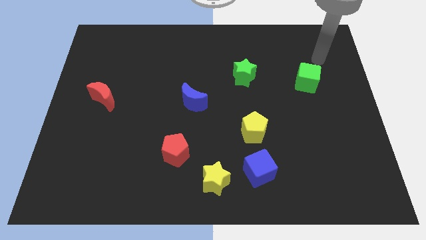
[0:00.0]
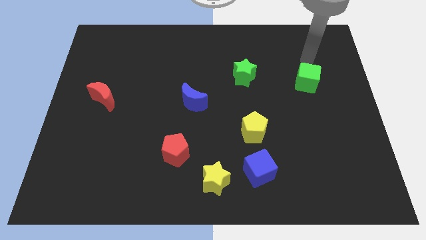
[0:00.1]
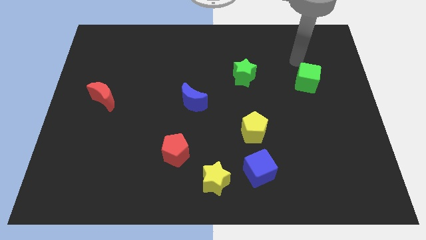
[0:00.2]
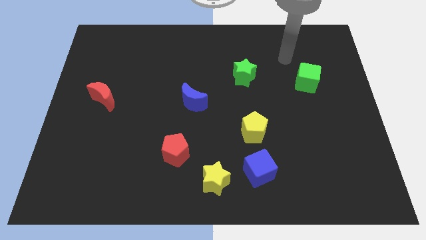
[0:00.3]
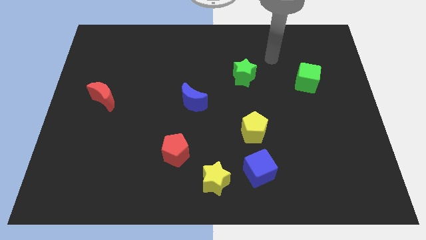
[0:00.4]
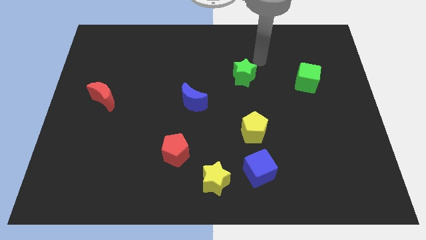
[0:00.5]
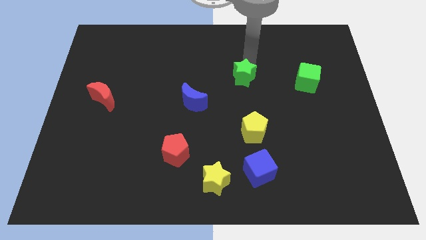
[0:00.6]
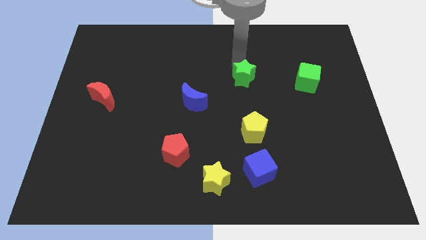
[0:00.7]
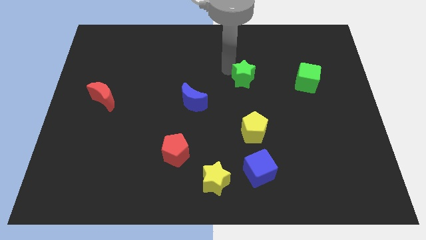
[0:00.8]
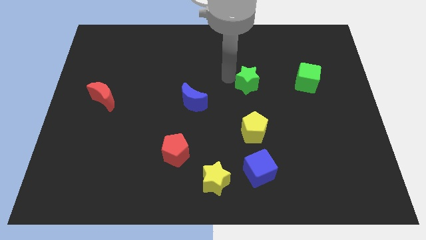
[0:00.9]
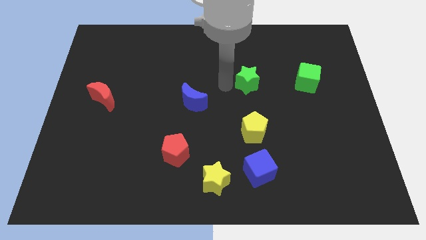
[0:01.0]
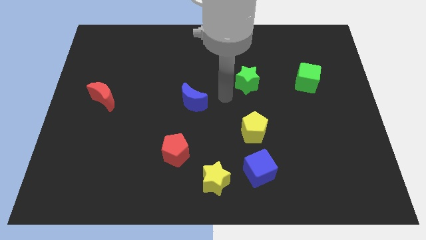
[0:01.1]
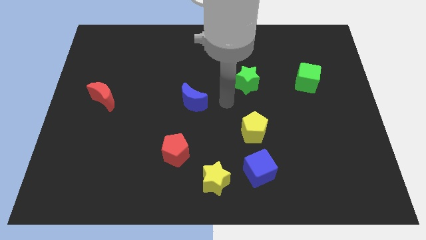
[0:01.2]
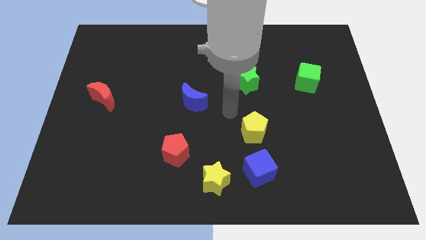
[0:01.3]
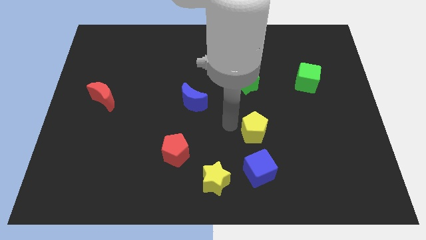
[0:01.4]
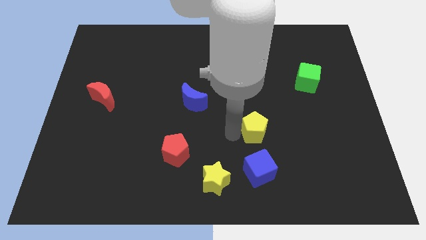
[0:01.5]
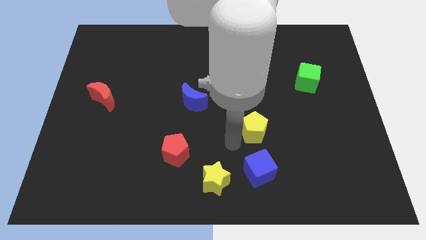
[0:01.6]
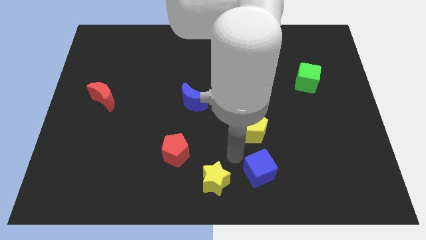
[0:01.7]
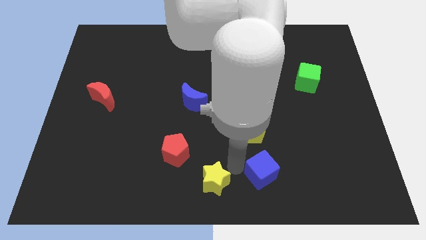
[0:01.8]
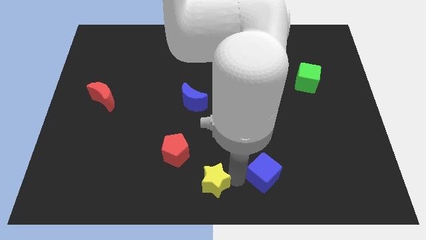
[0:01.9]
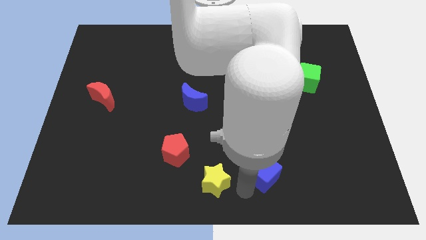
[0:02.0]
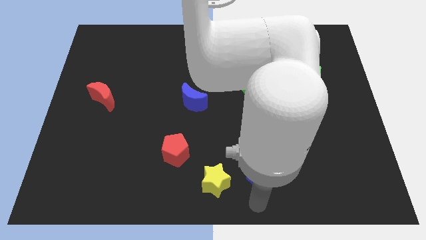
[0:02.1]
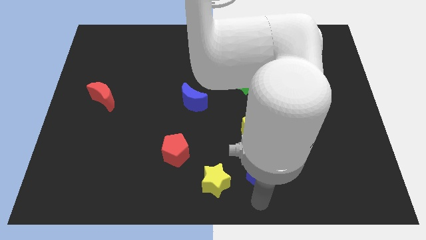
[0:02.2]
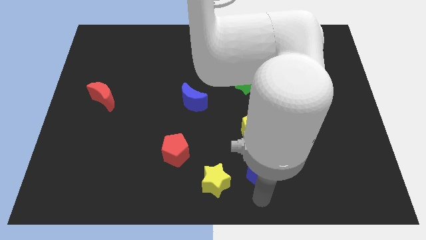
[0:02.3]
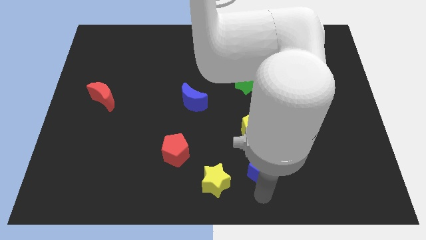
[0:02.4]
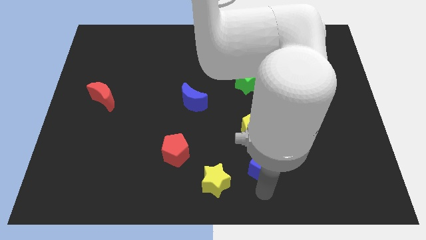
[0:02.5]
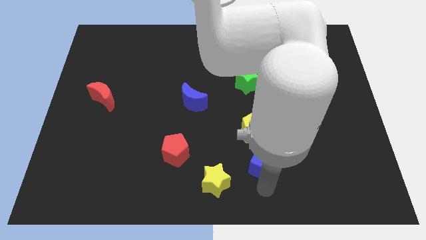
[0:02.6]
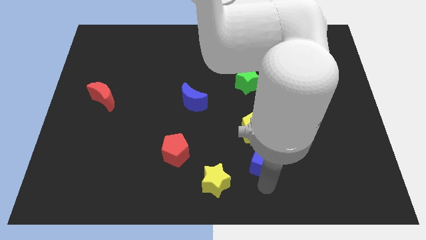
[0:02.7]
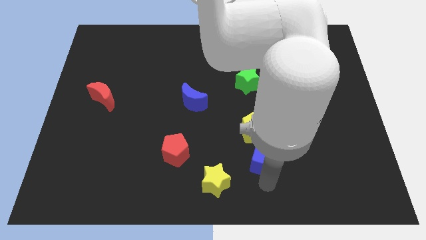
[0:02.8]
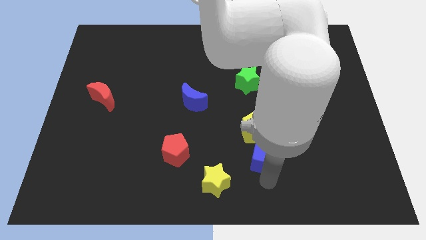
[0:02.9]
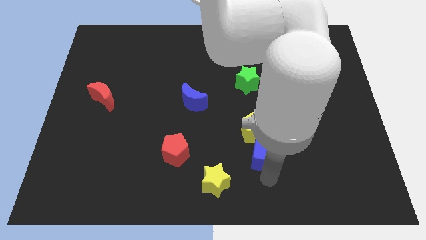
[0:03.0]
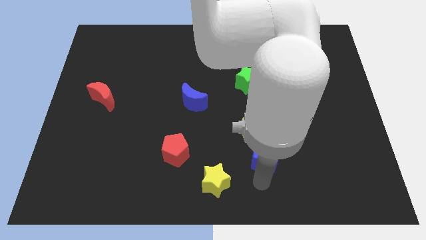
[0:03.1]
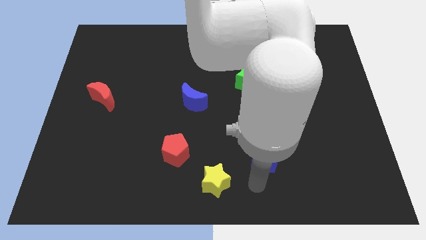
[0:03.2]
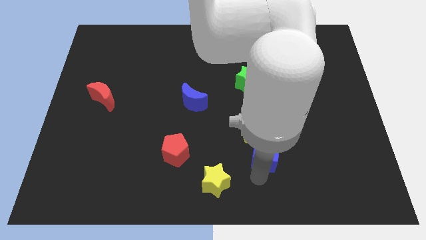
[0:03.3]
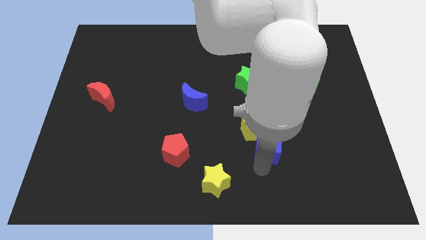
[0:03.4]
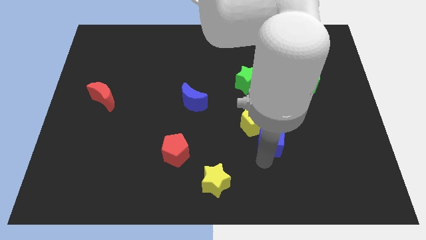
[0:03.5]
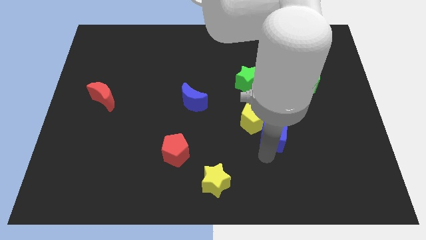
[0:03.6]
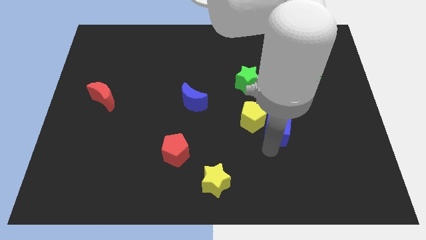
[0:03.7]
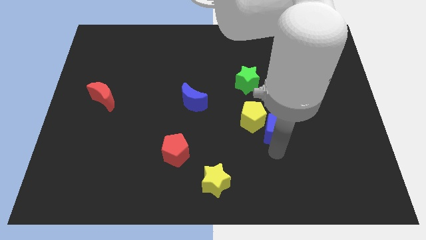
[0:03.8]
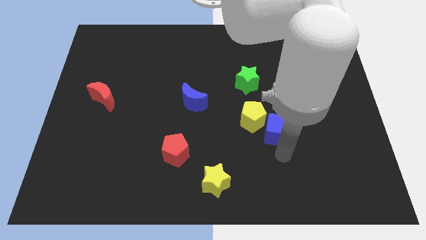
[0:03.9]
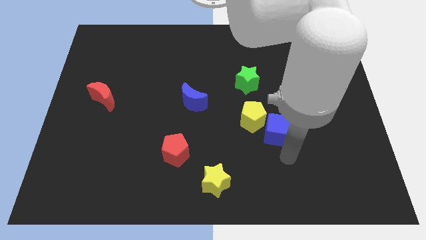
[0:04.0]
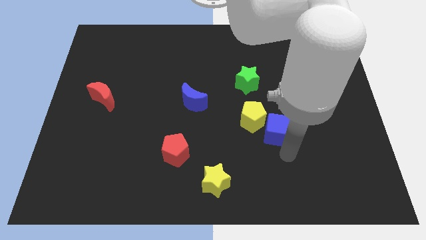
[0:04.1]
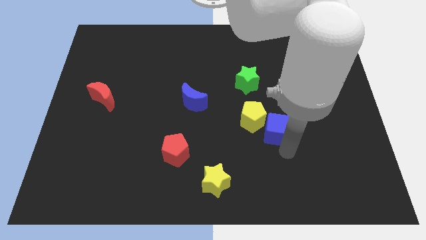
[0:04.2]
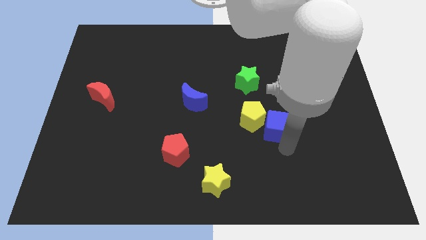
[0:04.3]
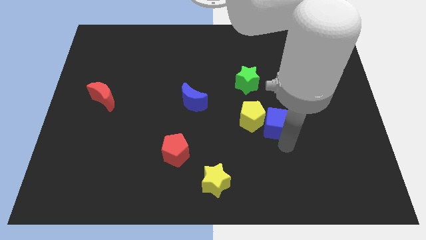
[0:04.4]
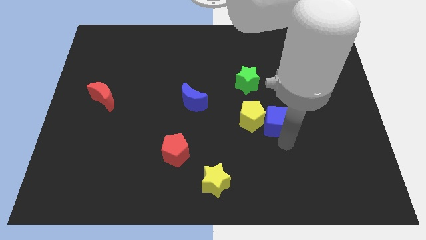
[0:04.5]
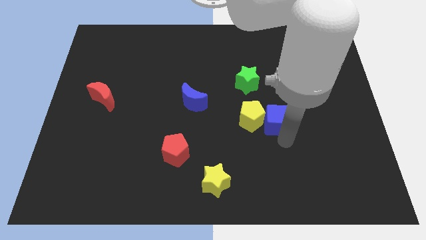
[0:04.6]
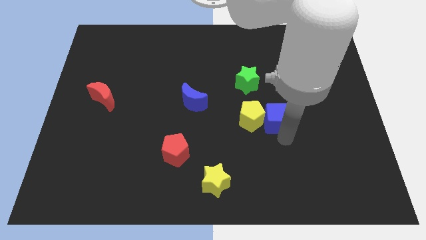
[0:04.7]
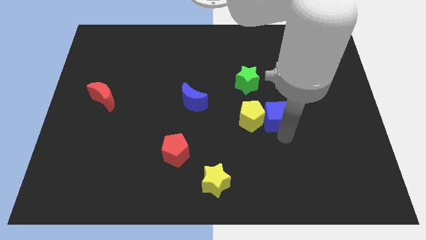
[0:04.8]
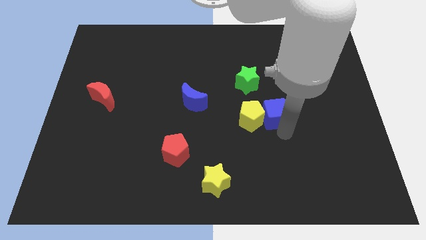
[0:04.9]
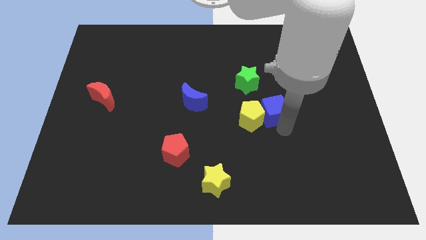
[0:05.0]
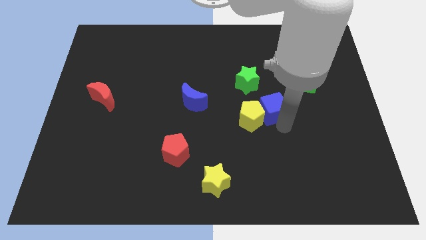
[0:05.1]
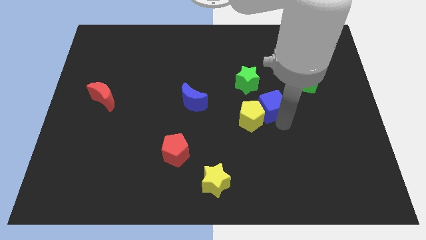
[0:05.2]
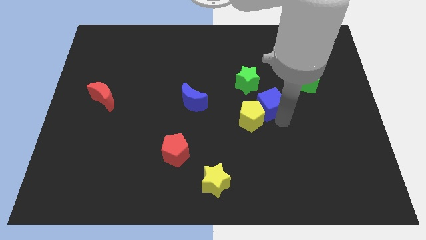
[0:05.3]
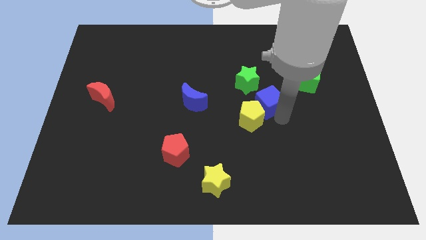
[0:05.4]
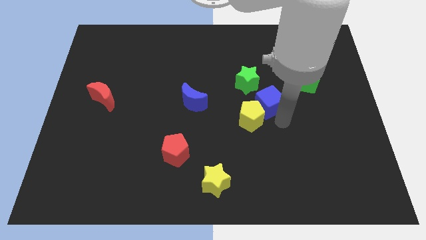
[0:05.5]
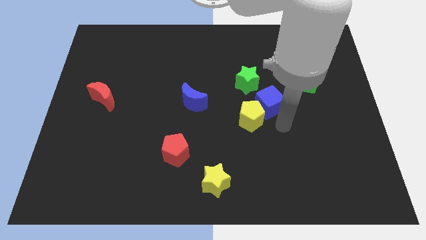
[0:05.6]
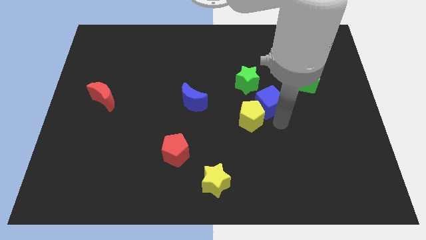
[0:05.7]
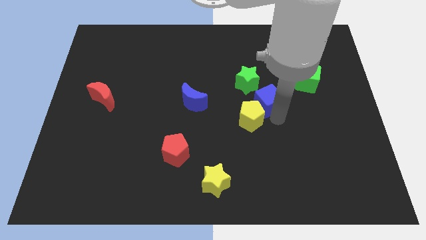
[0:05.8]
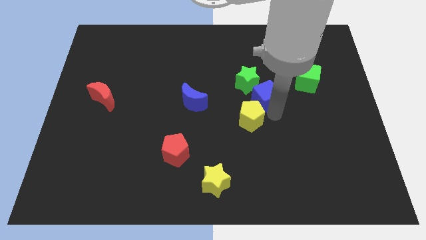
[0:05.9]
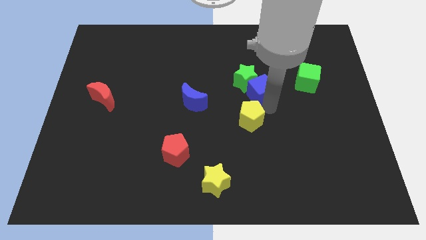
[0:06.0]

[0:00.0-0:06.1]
push the blue cube upwards

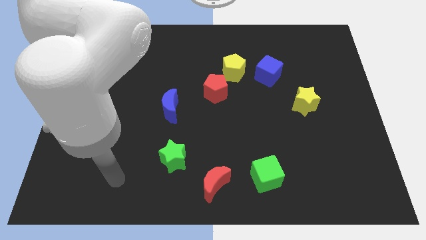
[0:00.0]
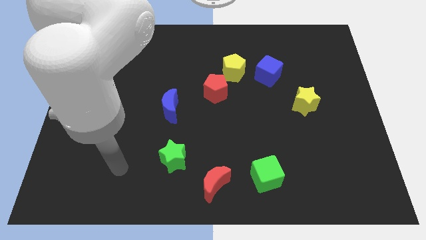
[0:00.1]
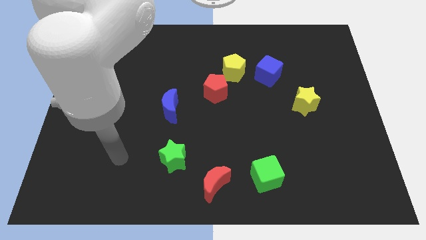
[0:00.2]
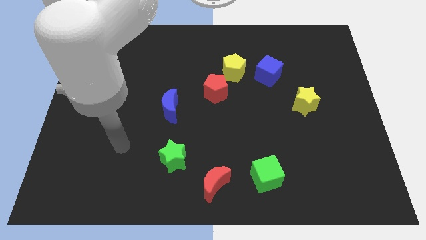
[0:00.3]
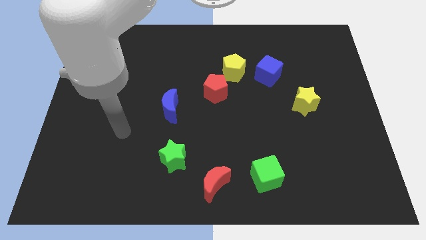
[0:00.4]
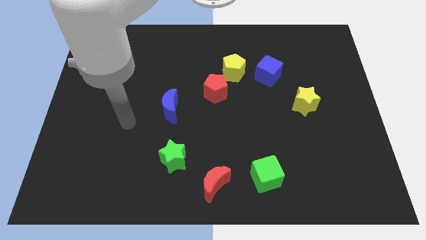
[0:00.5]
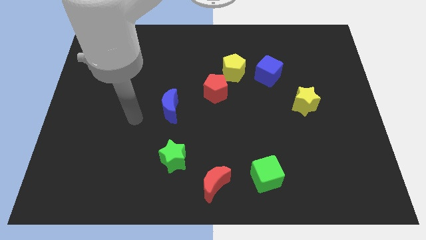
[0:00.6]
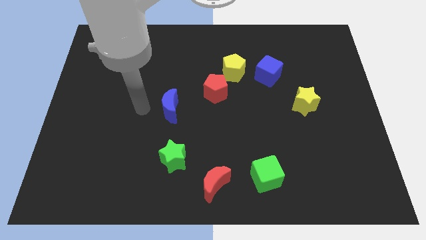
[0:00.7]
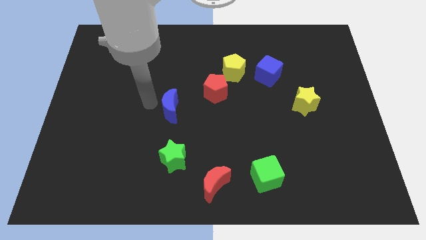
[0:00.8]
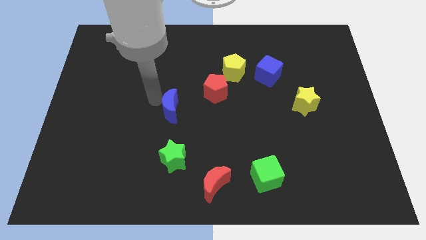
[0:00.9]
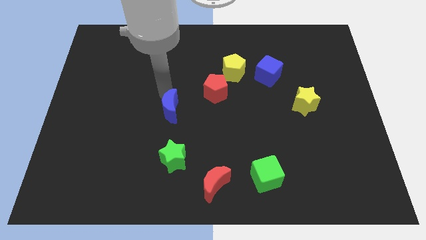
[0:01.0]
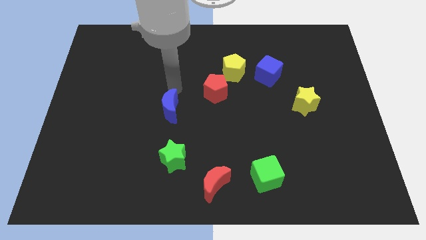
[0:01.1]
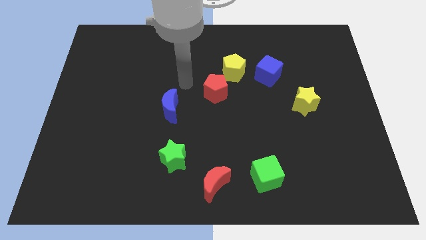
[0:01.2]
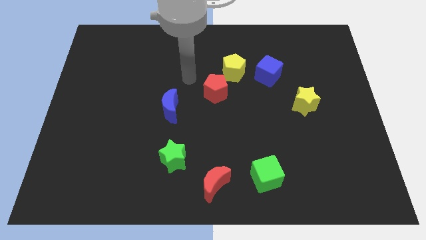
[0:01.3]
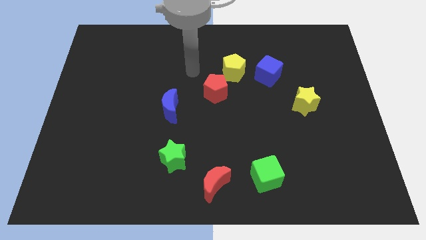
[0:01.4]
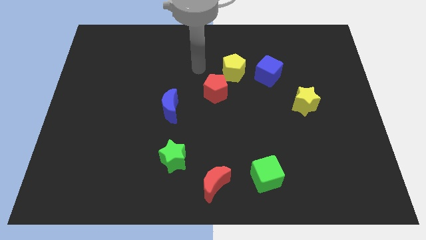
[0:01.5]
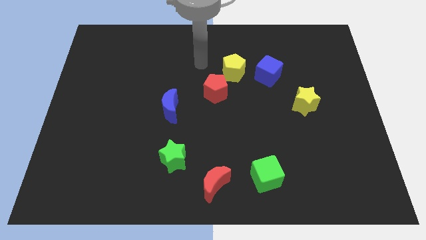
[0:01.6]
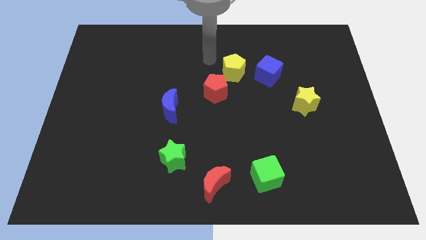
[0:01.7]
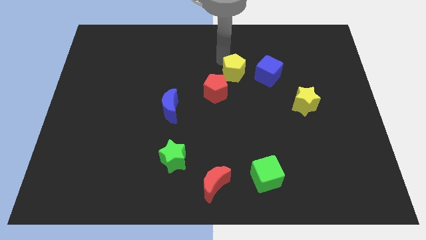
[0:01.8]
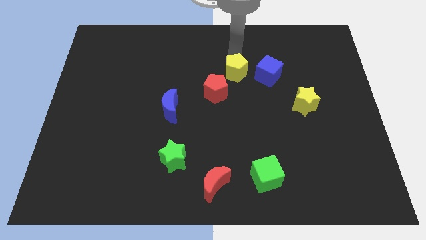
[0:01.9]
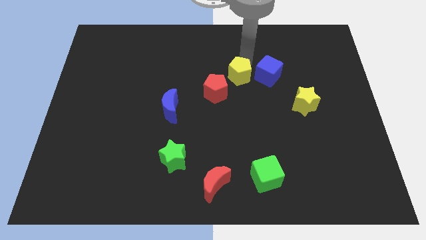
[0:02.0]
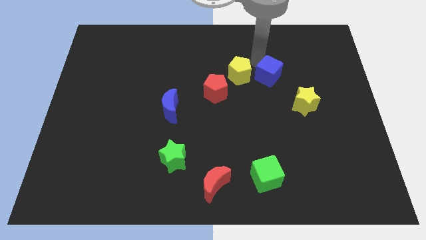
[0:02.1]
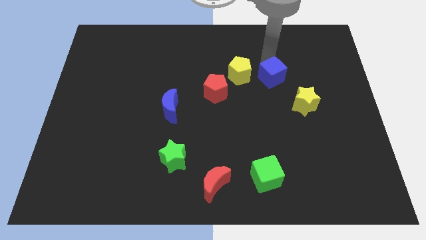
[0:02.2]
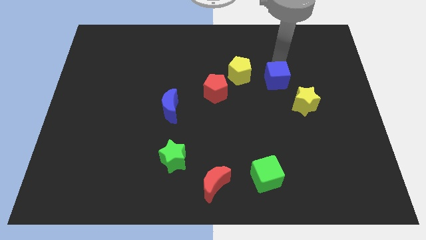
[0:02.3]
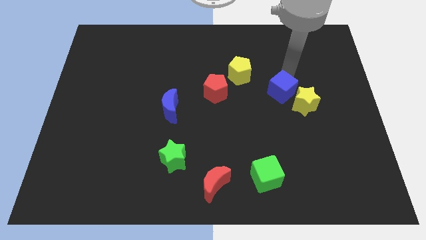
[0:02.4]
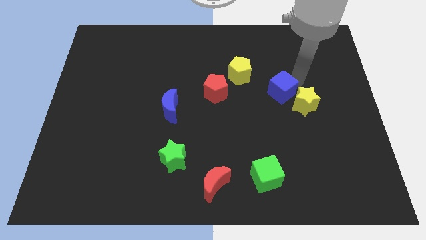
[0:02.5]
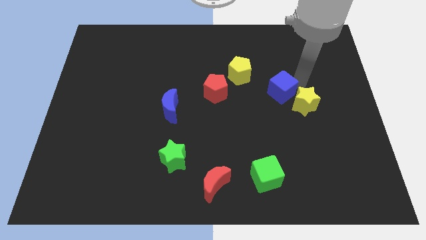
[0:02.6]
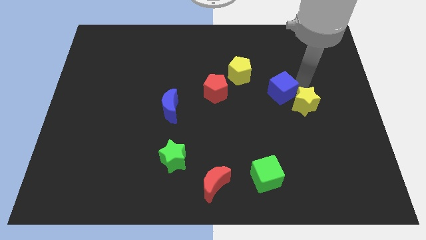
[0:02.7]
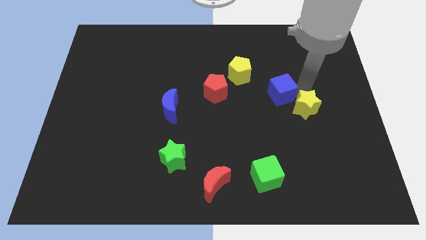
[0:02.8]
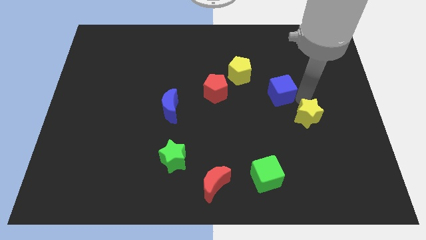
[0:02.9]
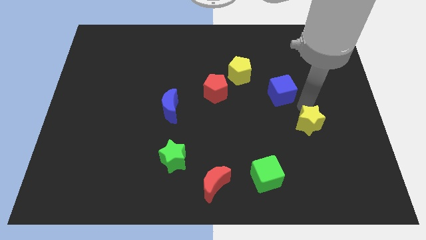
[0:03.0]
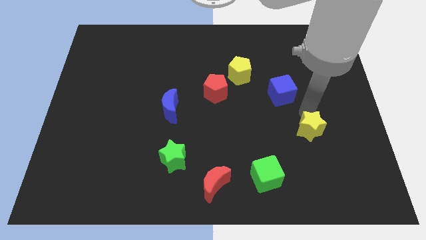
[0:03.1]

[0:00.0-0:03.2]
slightly slide the yellow star down
